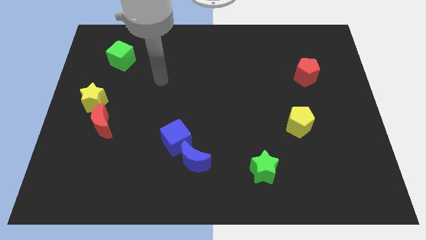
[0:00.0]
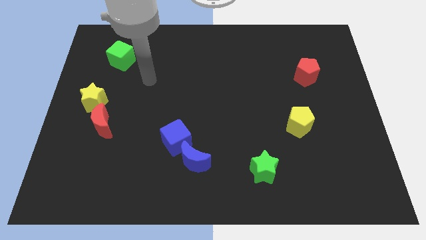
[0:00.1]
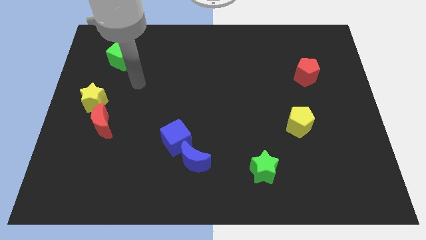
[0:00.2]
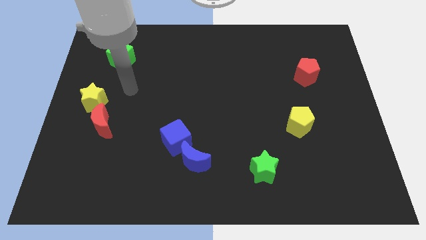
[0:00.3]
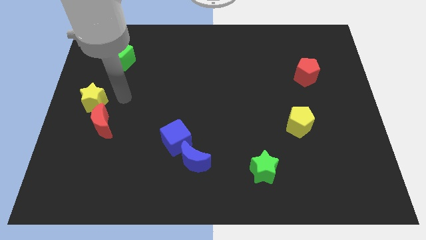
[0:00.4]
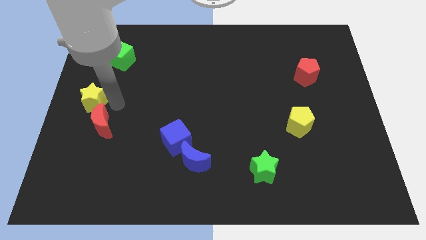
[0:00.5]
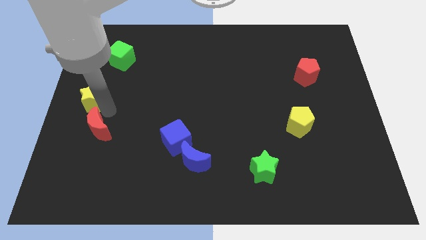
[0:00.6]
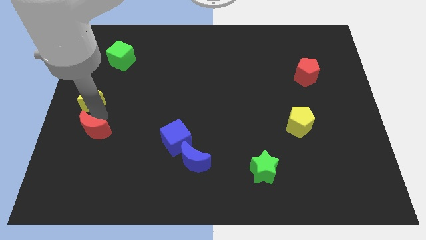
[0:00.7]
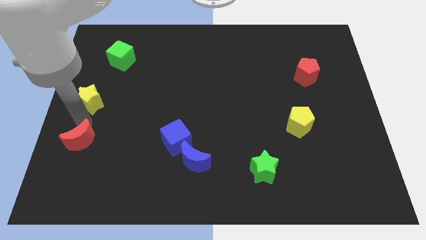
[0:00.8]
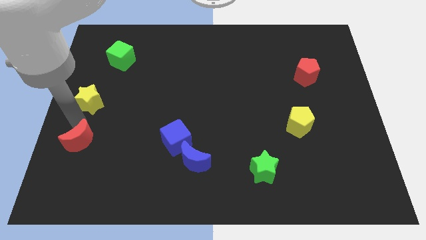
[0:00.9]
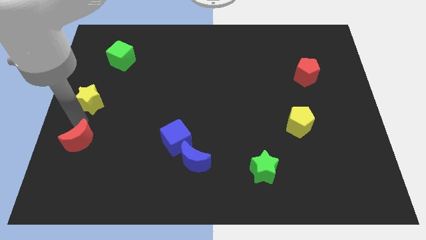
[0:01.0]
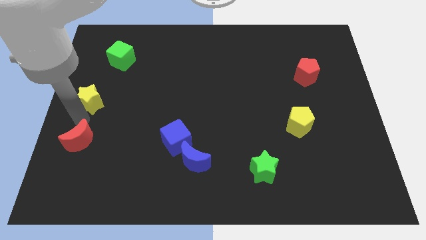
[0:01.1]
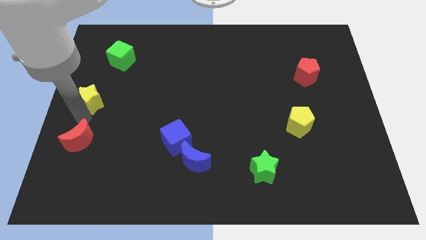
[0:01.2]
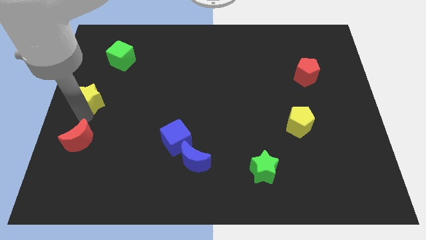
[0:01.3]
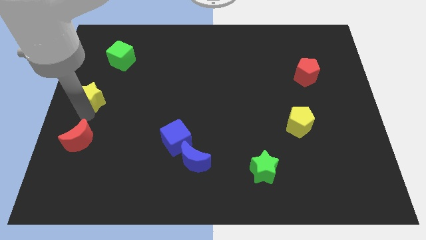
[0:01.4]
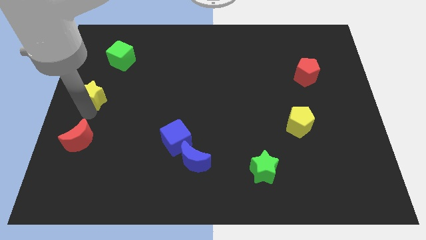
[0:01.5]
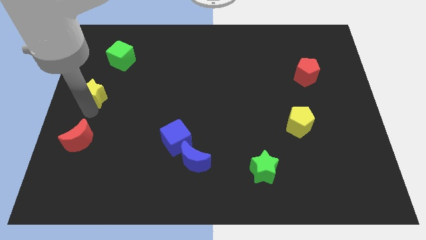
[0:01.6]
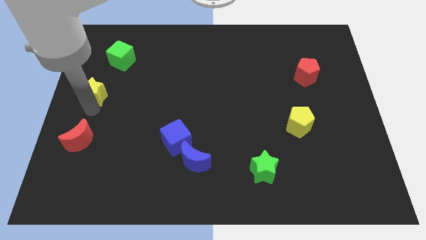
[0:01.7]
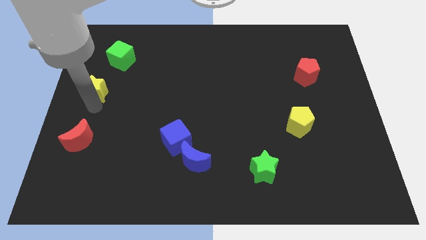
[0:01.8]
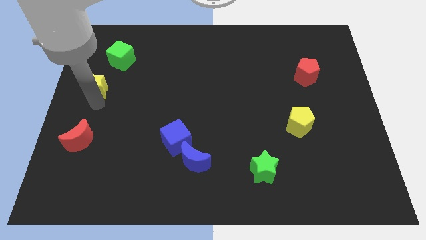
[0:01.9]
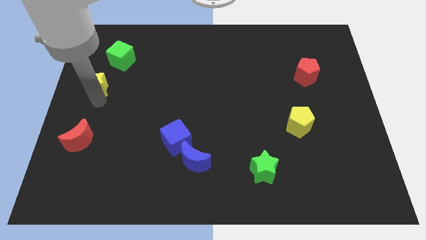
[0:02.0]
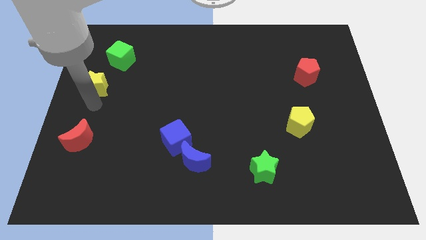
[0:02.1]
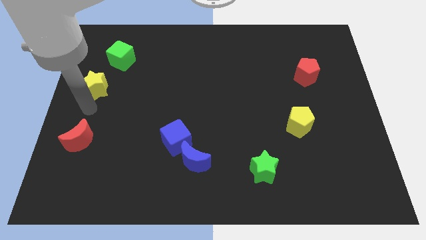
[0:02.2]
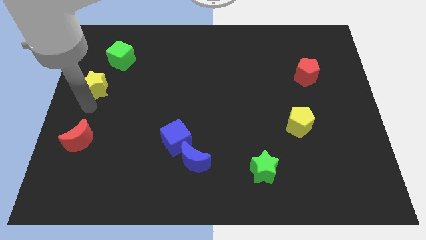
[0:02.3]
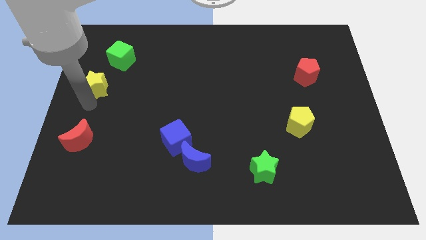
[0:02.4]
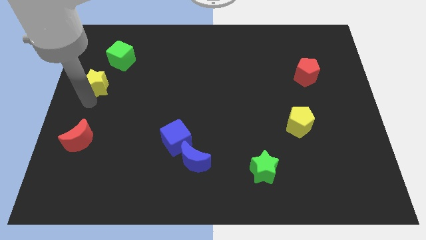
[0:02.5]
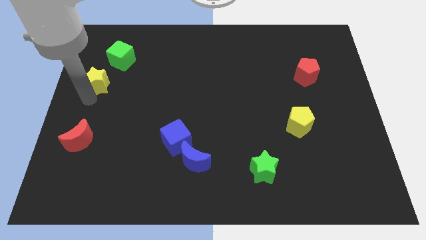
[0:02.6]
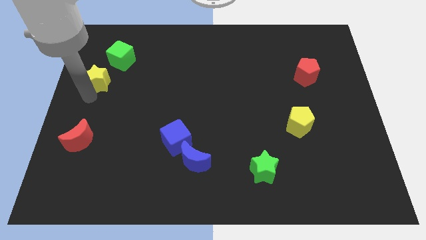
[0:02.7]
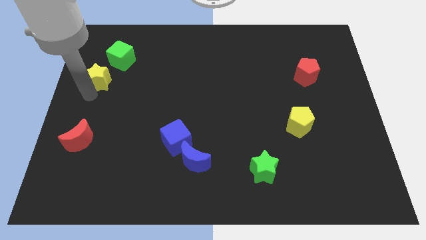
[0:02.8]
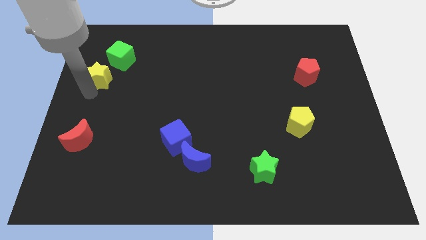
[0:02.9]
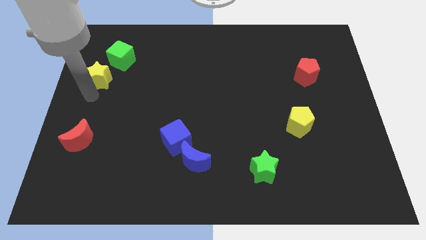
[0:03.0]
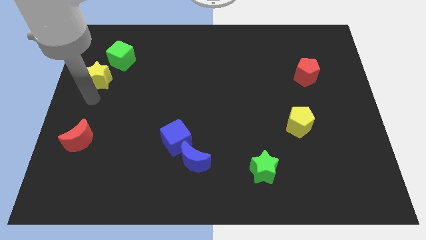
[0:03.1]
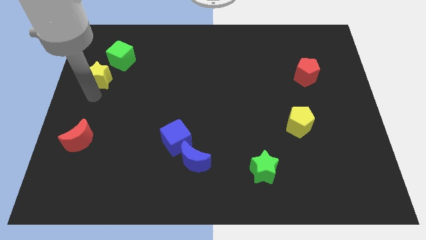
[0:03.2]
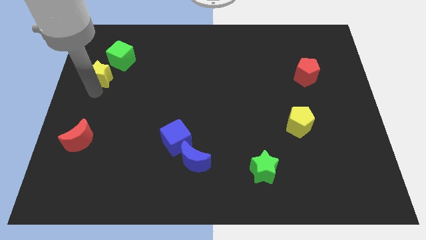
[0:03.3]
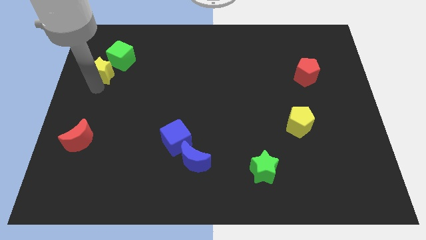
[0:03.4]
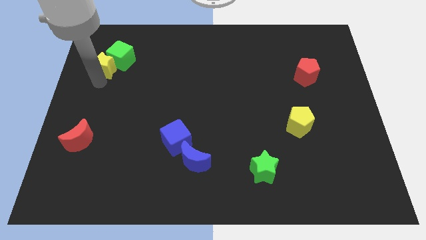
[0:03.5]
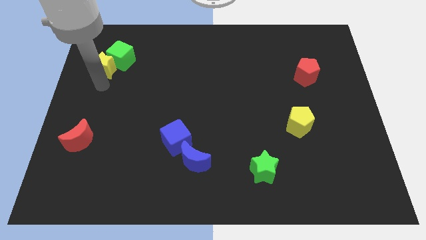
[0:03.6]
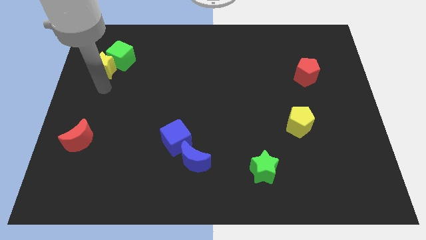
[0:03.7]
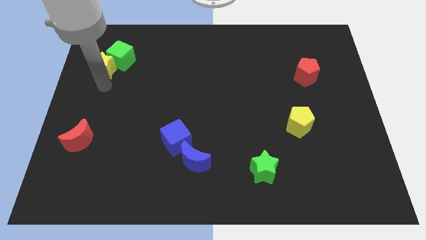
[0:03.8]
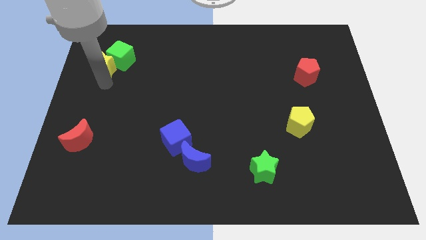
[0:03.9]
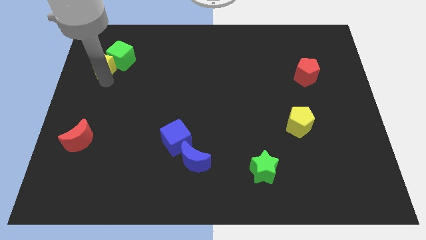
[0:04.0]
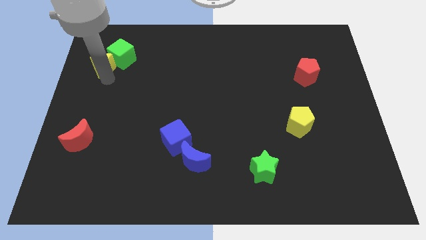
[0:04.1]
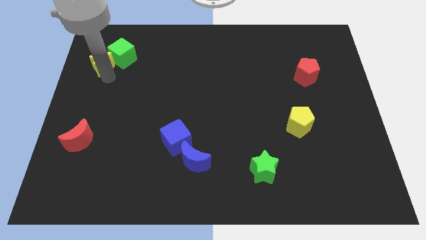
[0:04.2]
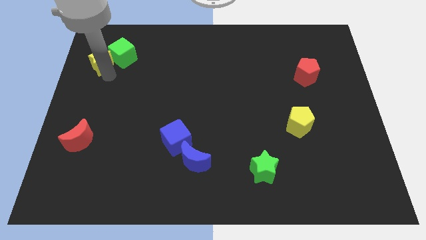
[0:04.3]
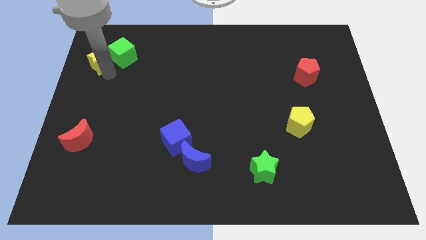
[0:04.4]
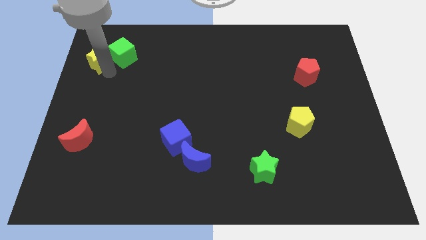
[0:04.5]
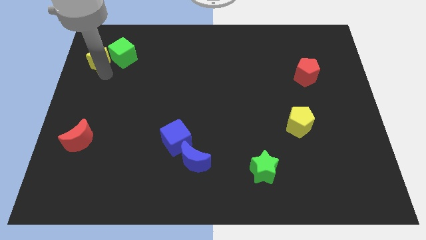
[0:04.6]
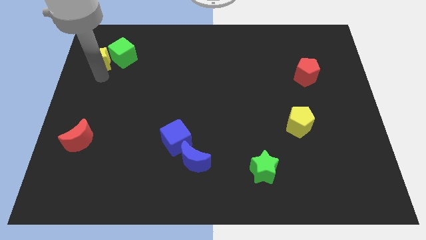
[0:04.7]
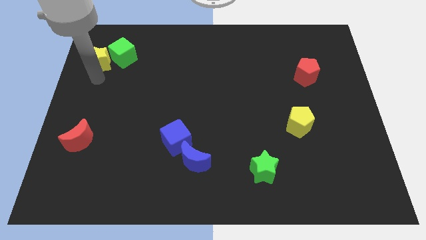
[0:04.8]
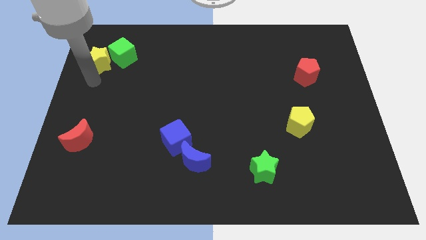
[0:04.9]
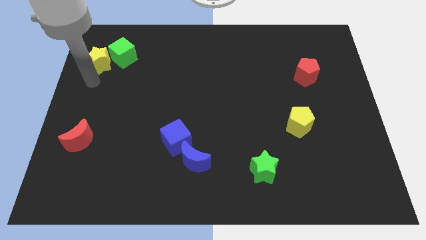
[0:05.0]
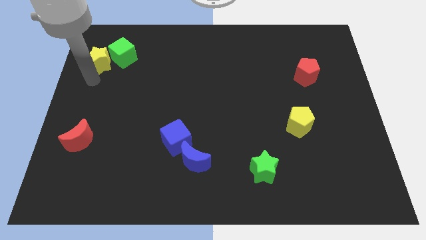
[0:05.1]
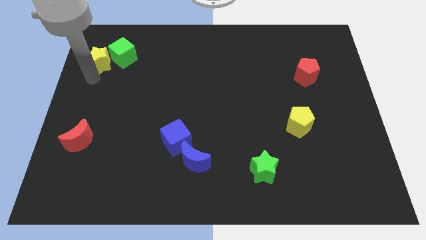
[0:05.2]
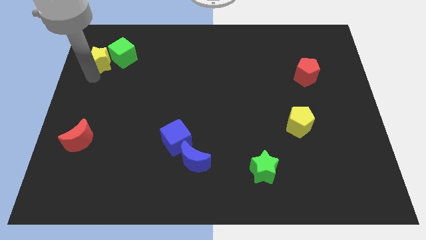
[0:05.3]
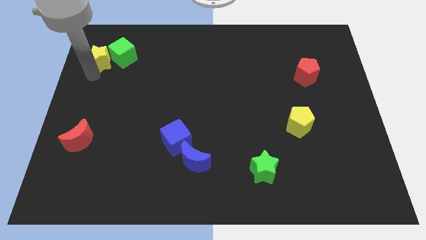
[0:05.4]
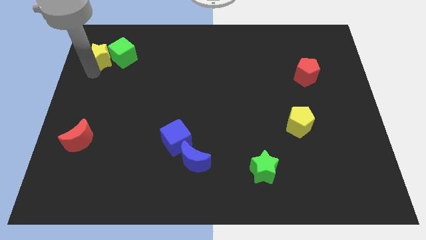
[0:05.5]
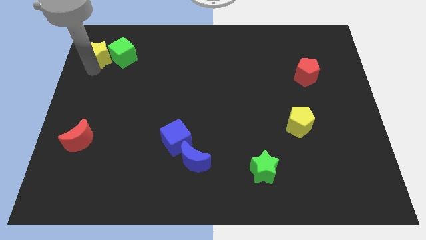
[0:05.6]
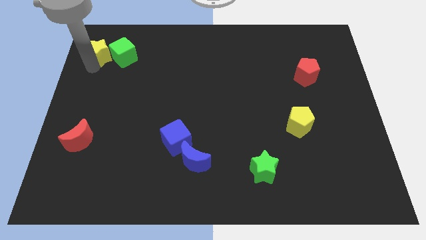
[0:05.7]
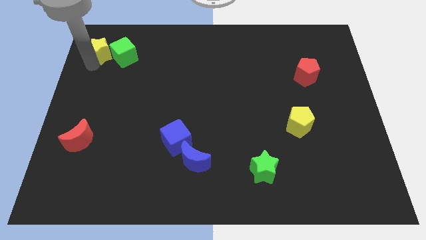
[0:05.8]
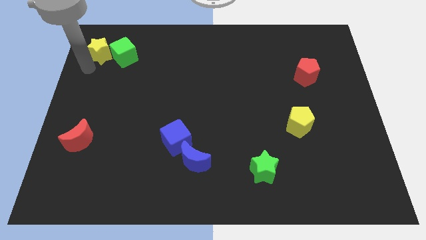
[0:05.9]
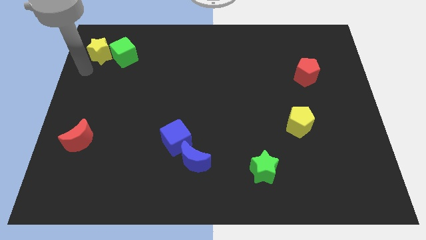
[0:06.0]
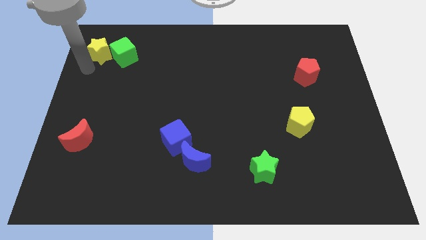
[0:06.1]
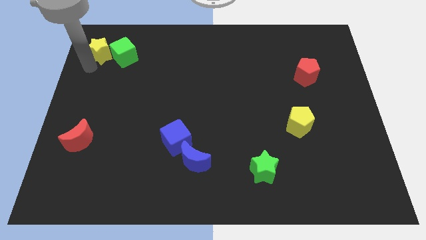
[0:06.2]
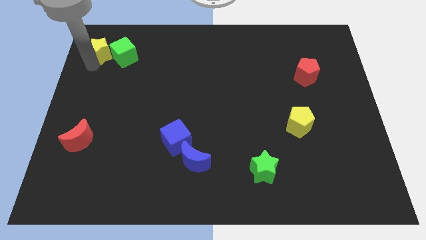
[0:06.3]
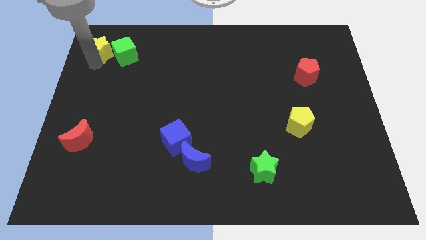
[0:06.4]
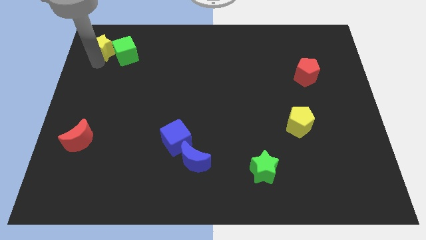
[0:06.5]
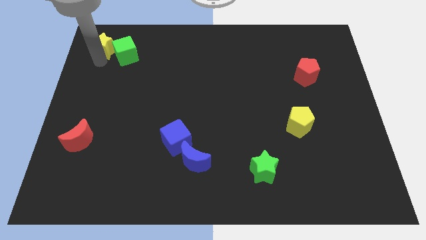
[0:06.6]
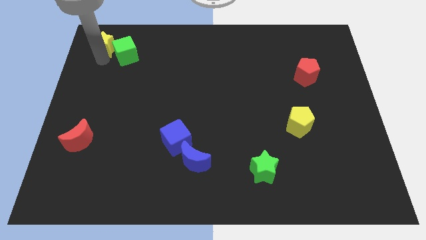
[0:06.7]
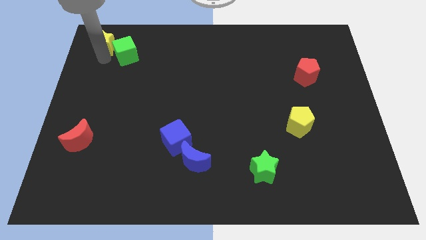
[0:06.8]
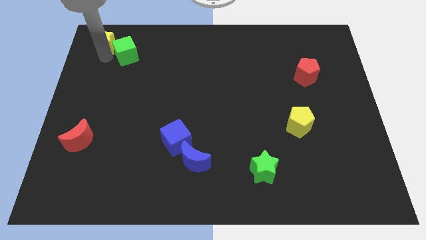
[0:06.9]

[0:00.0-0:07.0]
push the yellow star to the upper left corner
